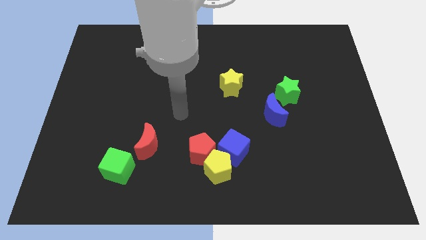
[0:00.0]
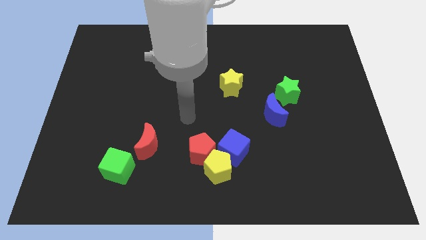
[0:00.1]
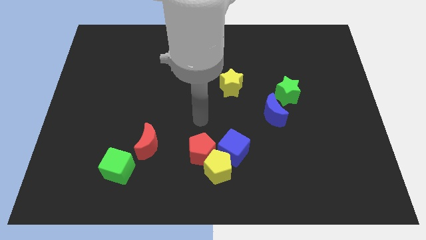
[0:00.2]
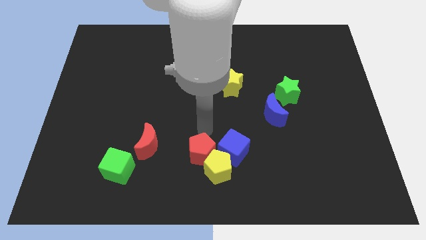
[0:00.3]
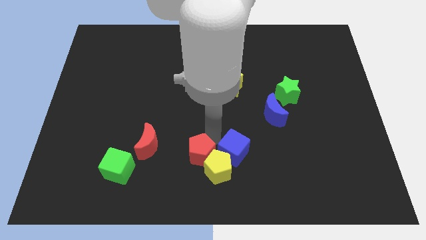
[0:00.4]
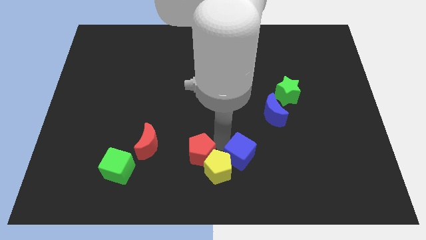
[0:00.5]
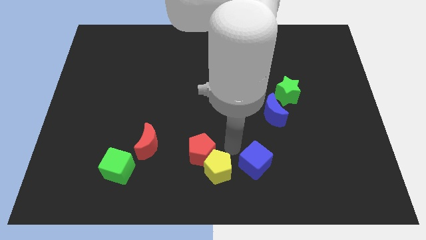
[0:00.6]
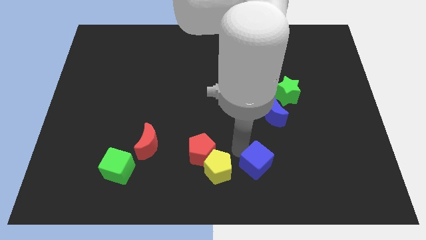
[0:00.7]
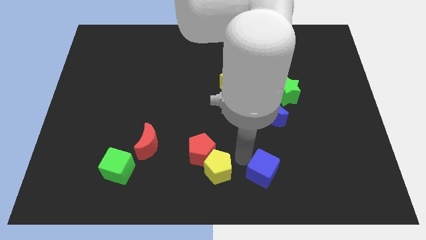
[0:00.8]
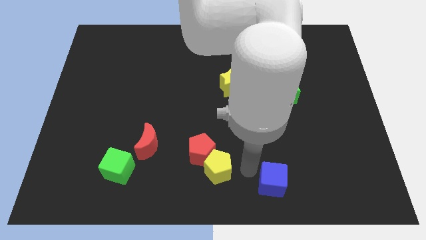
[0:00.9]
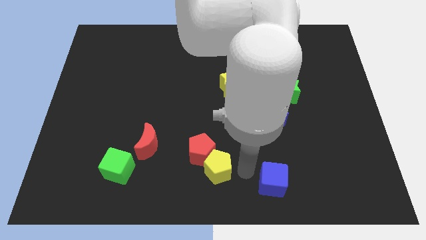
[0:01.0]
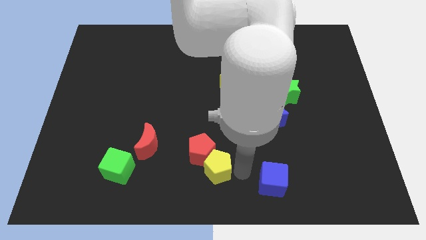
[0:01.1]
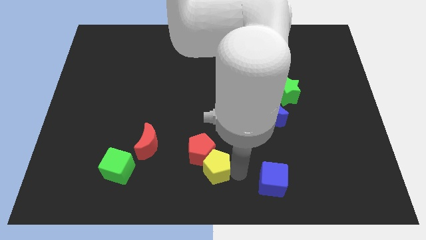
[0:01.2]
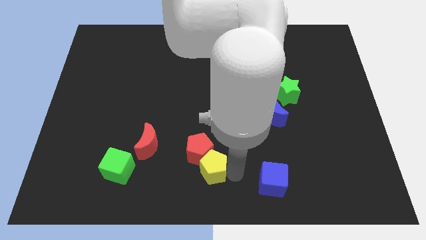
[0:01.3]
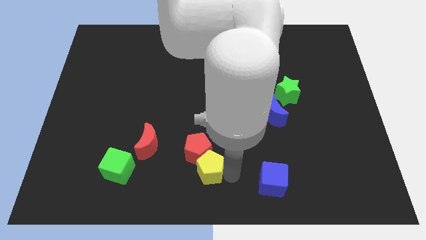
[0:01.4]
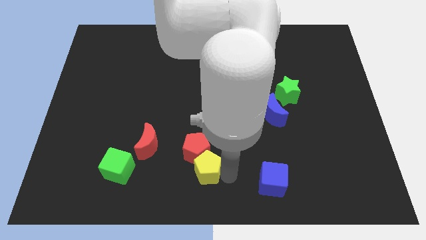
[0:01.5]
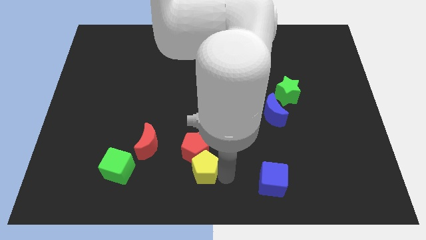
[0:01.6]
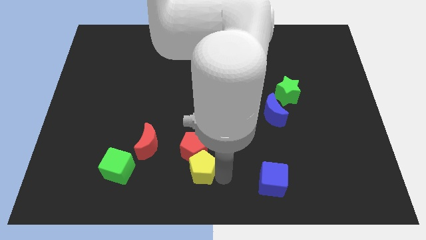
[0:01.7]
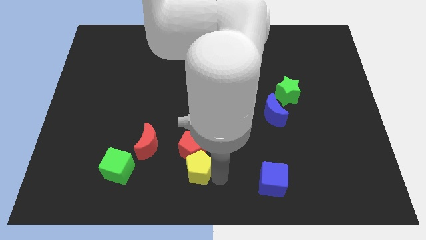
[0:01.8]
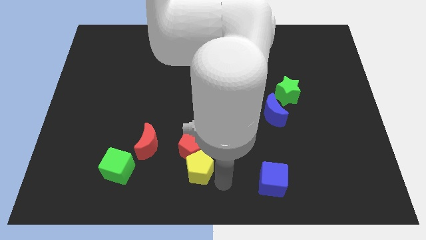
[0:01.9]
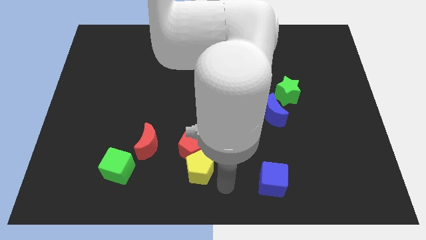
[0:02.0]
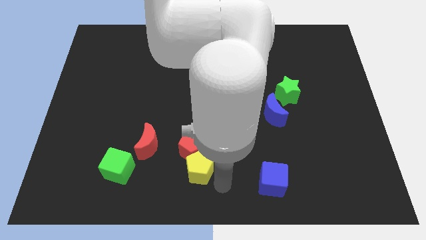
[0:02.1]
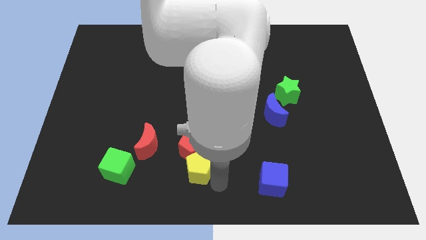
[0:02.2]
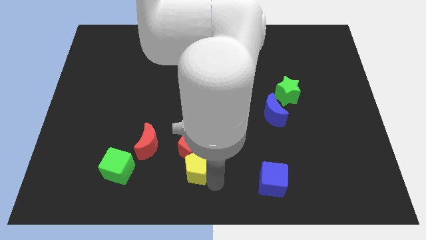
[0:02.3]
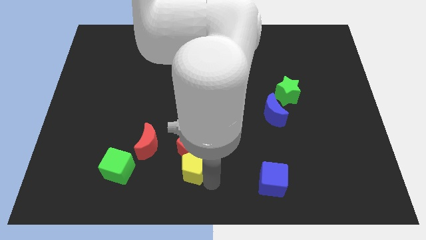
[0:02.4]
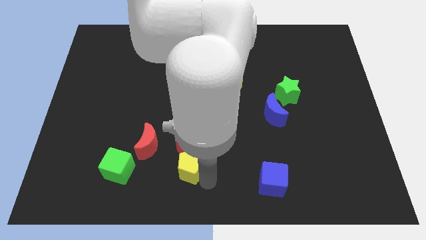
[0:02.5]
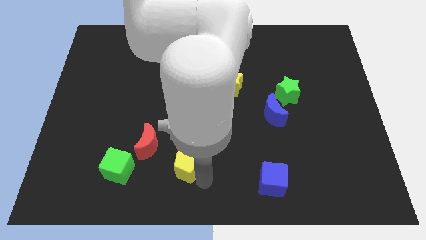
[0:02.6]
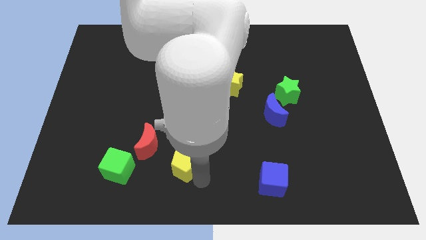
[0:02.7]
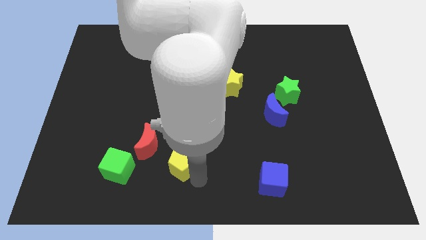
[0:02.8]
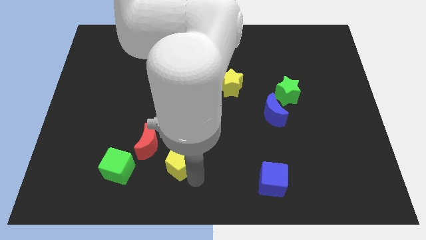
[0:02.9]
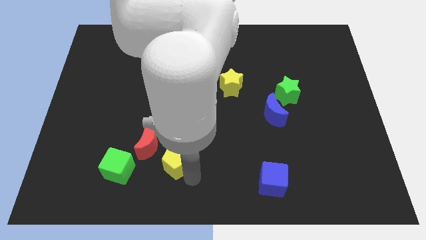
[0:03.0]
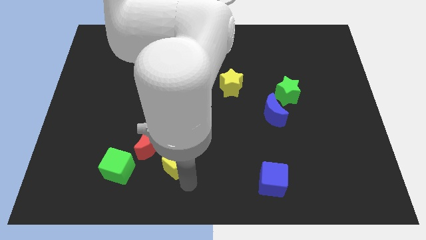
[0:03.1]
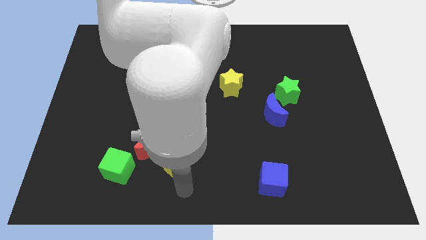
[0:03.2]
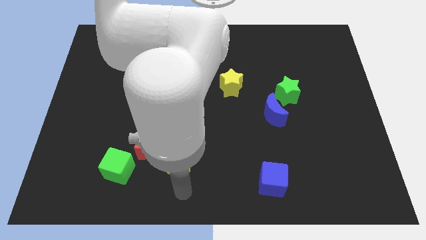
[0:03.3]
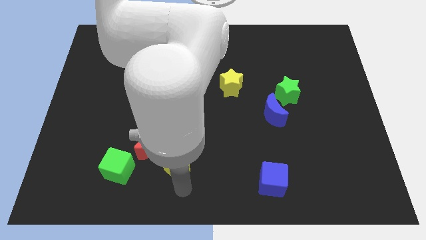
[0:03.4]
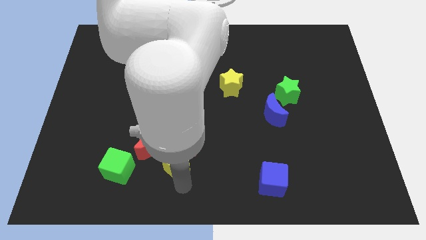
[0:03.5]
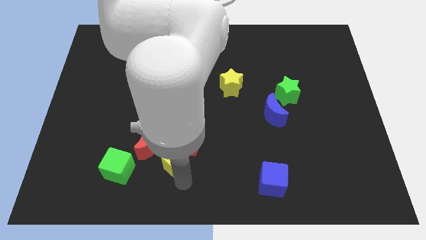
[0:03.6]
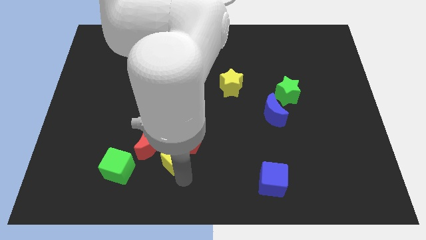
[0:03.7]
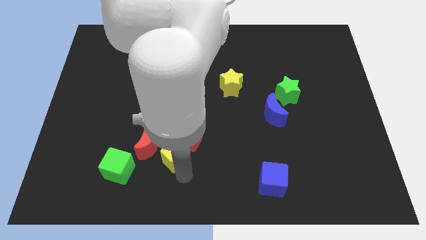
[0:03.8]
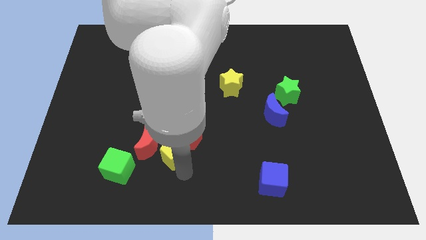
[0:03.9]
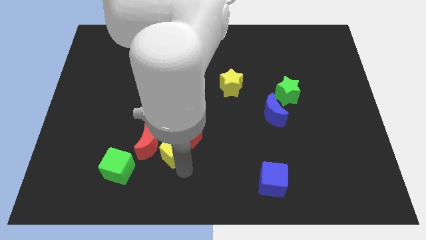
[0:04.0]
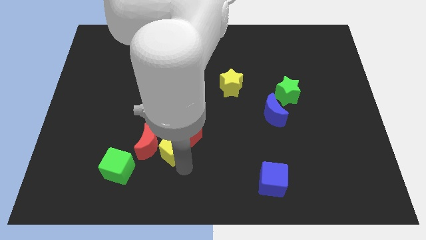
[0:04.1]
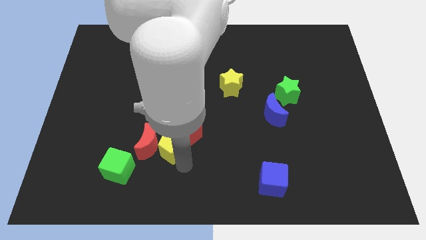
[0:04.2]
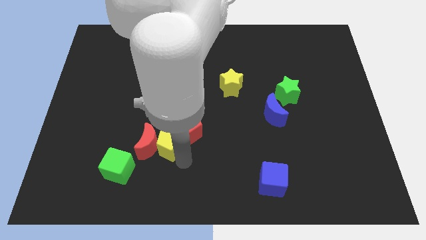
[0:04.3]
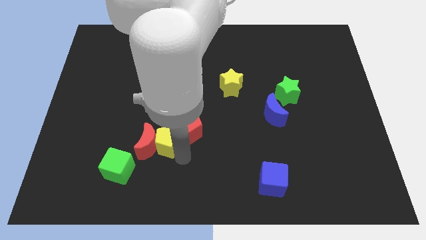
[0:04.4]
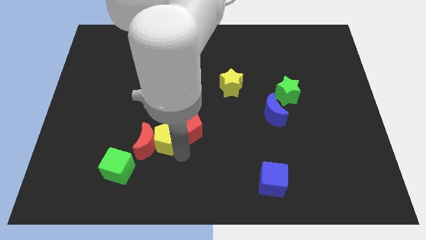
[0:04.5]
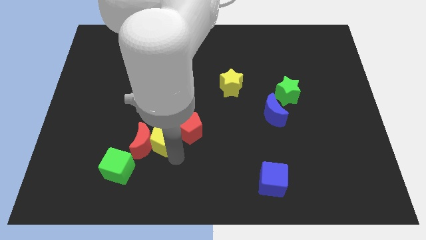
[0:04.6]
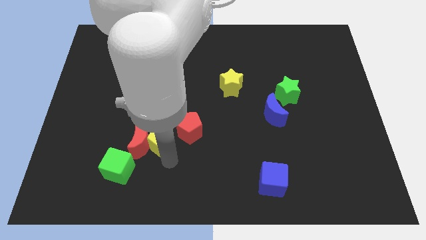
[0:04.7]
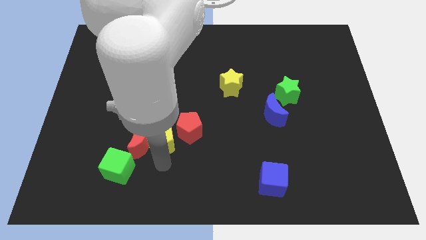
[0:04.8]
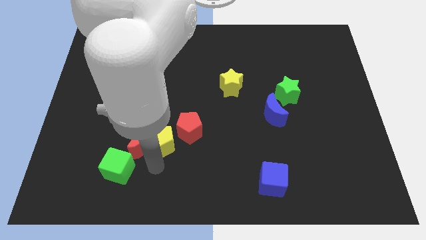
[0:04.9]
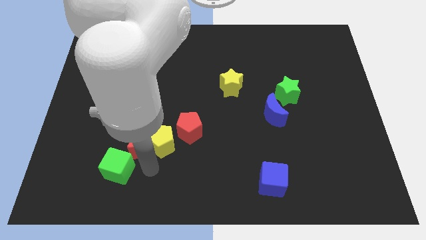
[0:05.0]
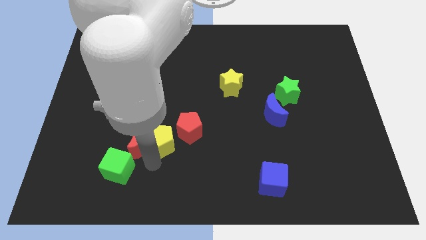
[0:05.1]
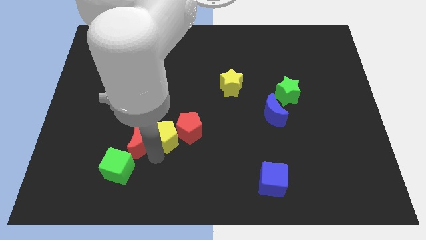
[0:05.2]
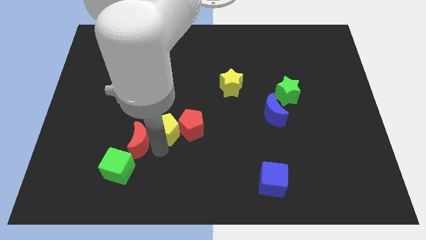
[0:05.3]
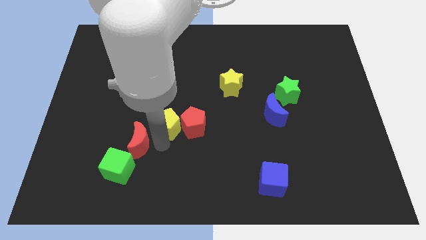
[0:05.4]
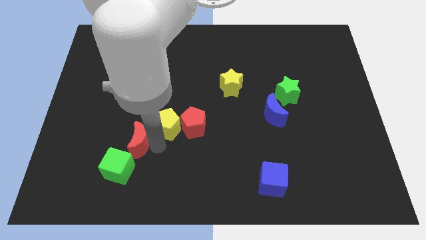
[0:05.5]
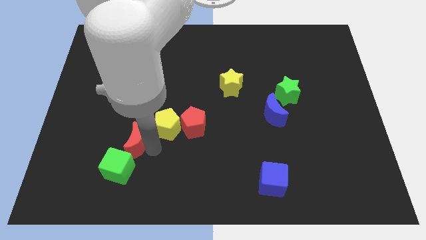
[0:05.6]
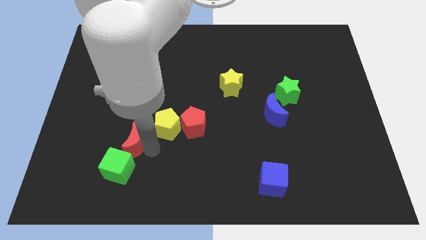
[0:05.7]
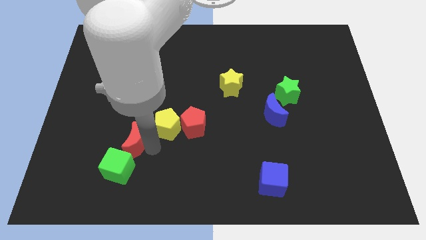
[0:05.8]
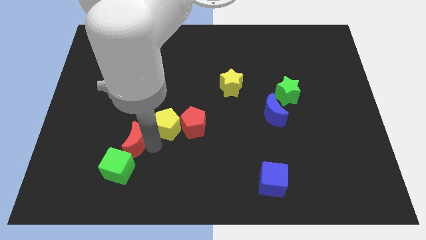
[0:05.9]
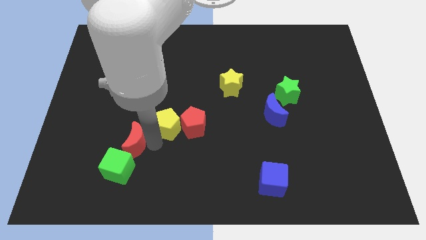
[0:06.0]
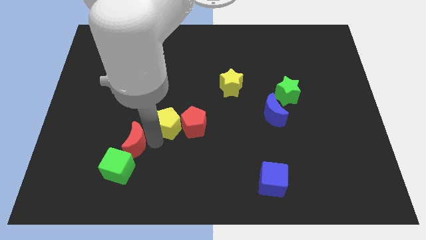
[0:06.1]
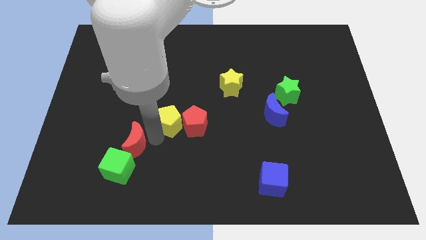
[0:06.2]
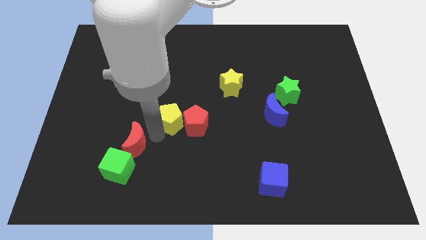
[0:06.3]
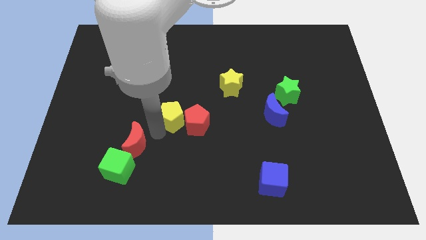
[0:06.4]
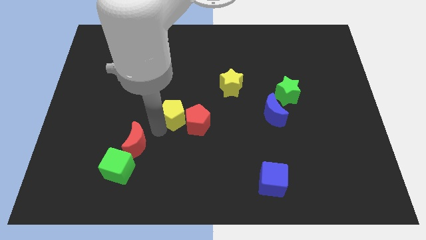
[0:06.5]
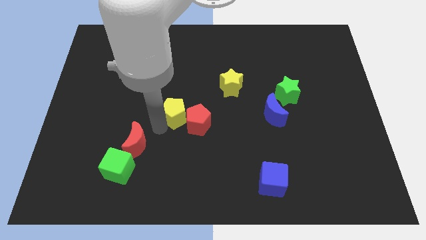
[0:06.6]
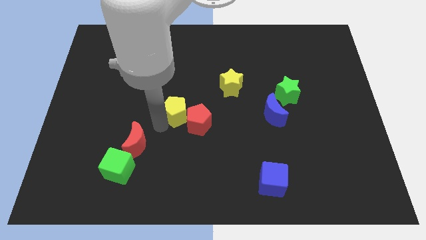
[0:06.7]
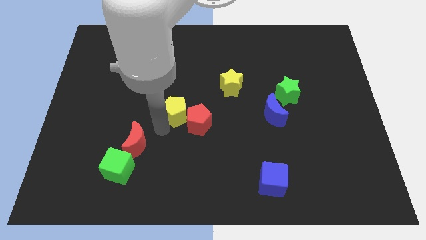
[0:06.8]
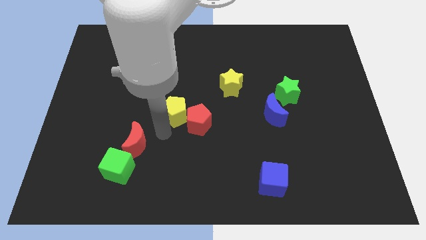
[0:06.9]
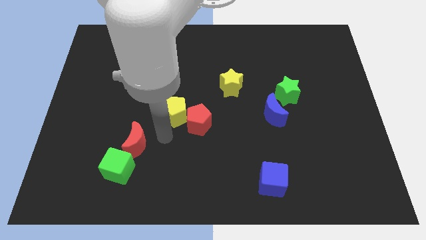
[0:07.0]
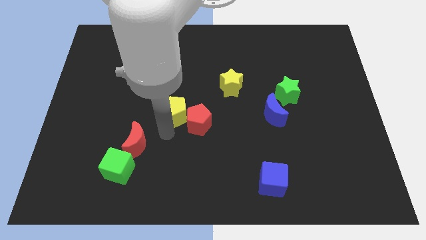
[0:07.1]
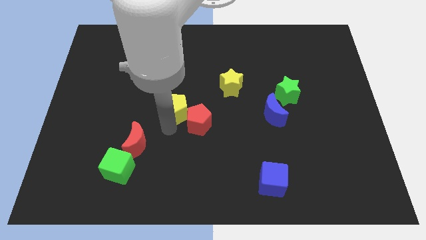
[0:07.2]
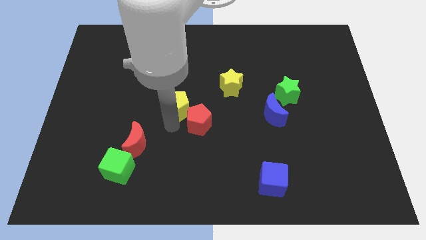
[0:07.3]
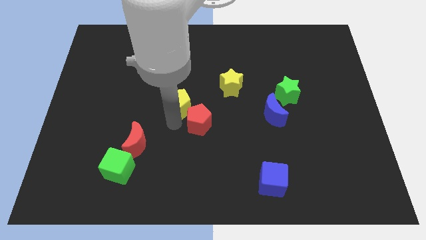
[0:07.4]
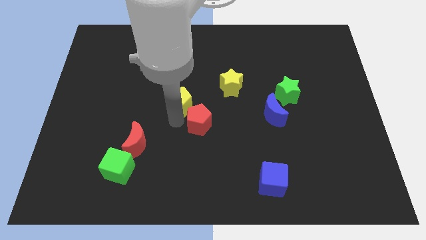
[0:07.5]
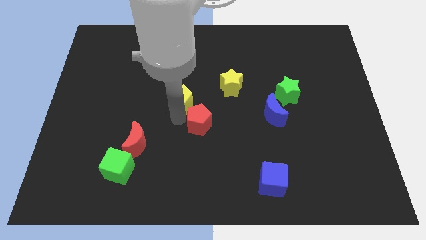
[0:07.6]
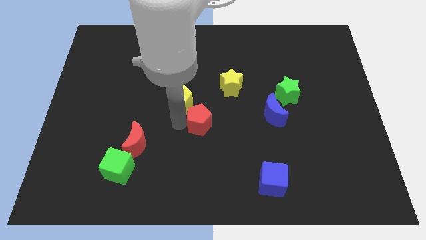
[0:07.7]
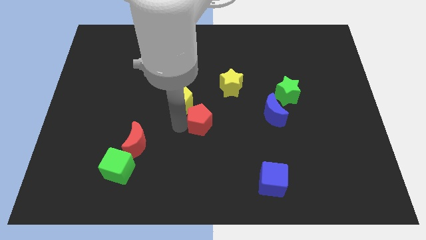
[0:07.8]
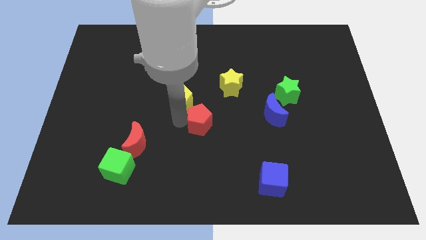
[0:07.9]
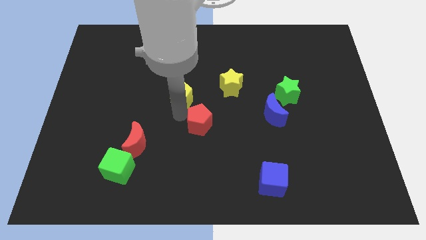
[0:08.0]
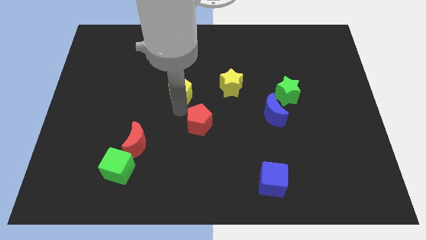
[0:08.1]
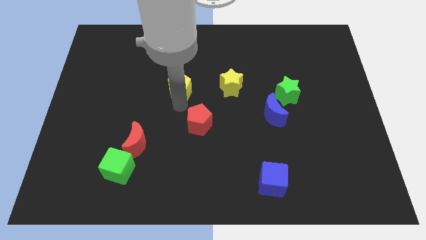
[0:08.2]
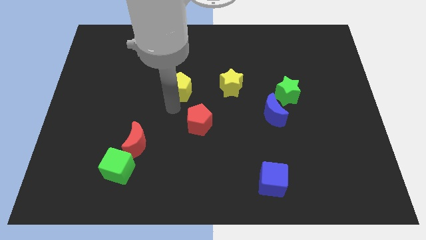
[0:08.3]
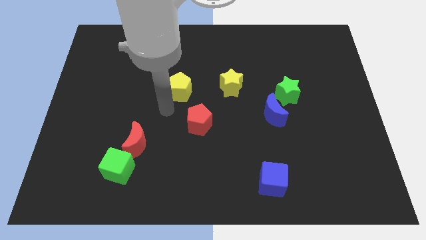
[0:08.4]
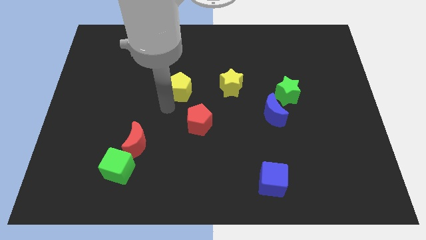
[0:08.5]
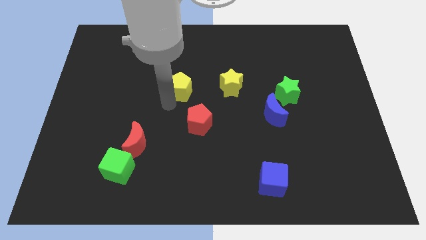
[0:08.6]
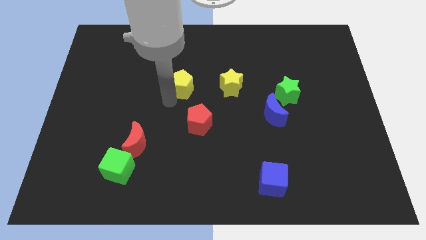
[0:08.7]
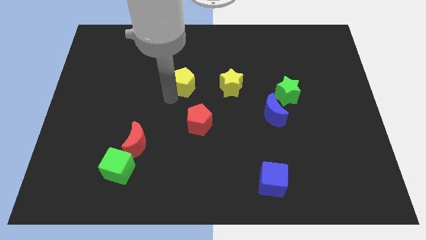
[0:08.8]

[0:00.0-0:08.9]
move the yellow pentagon up
